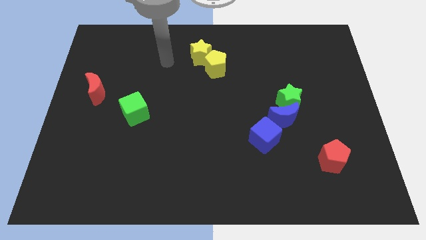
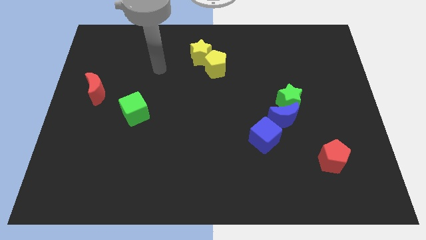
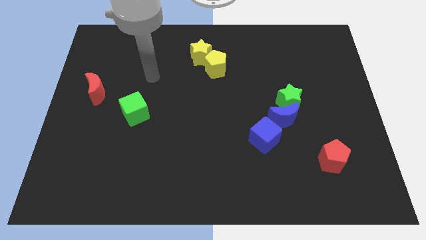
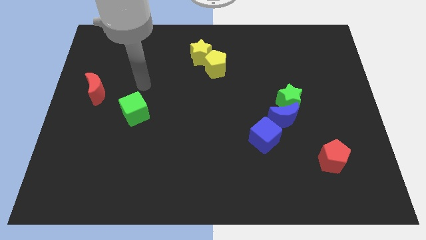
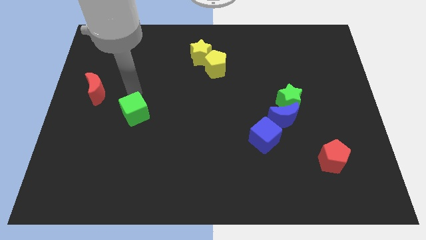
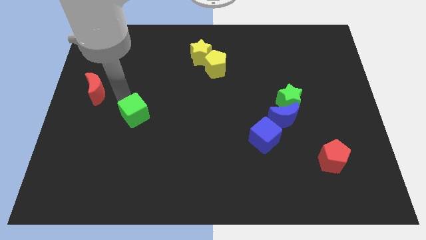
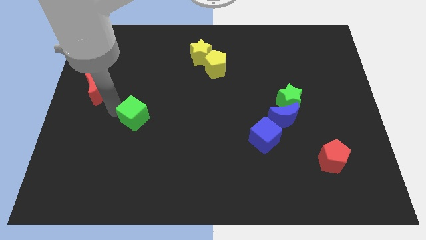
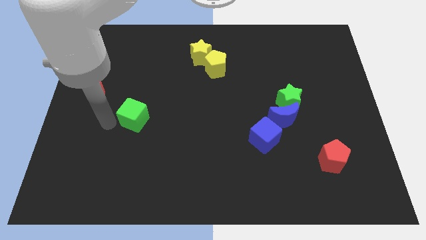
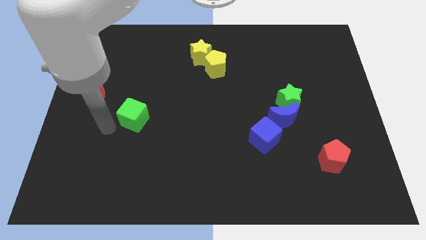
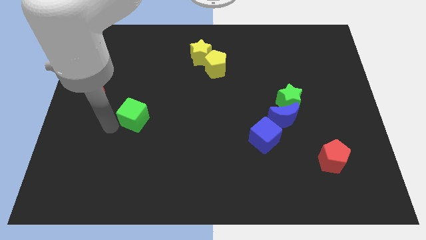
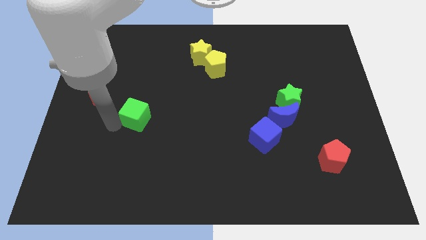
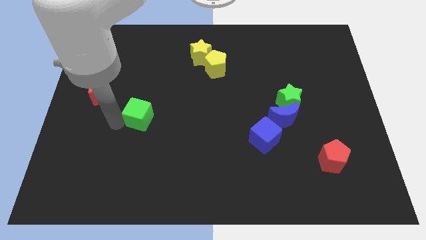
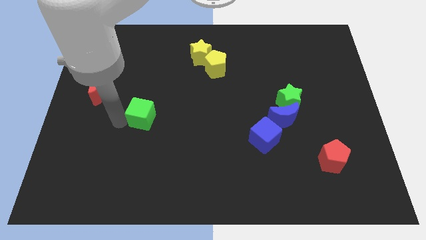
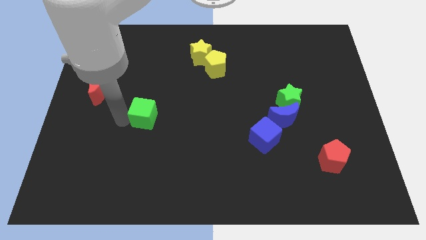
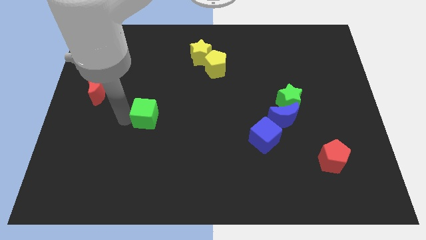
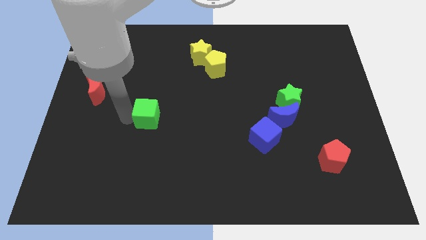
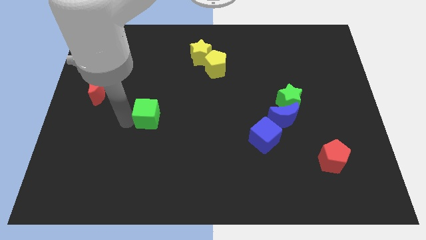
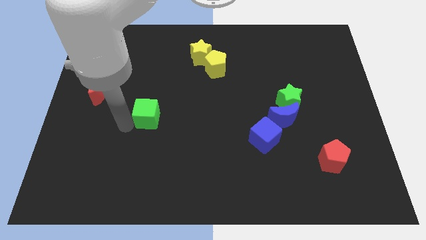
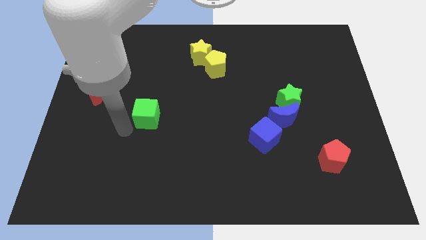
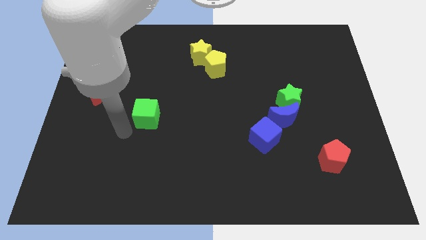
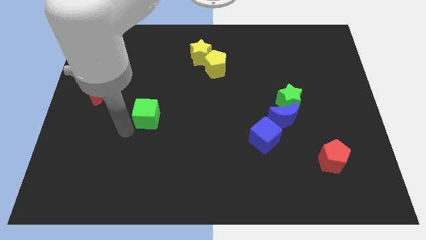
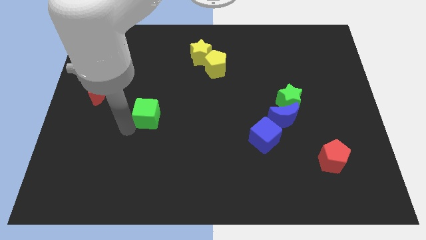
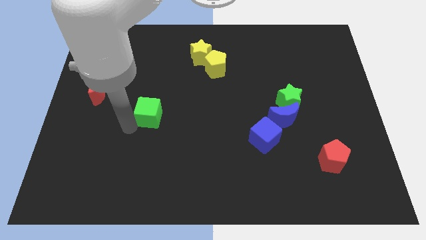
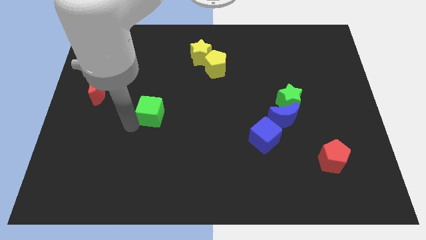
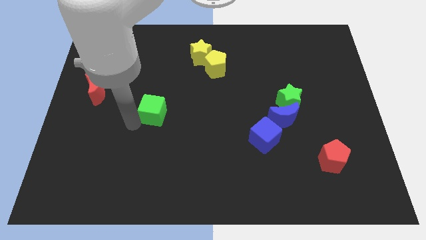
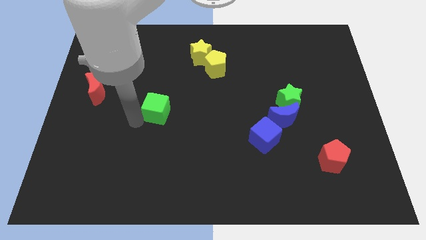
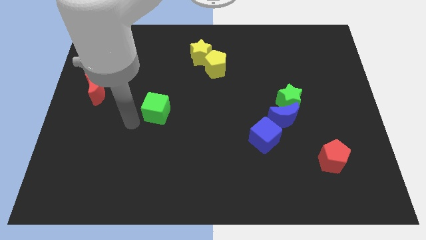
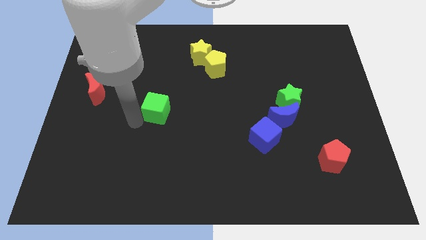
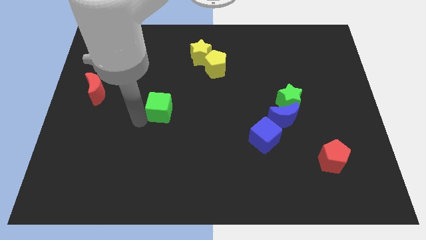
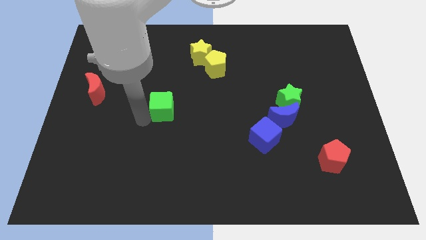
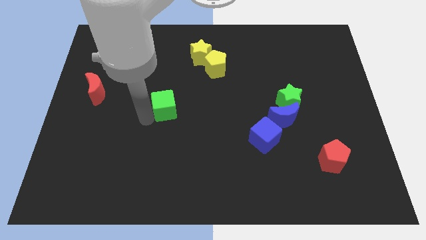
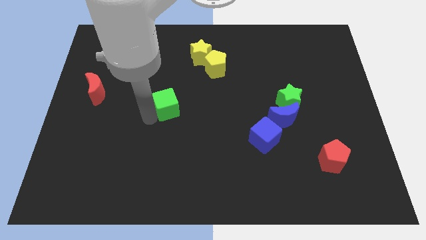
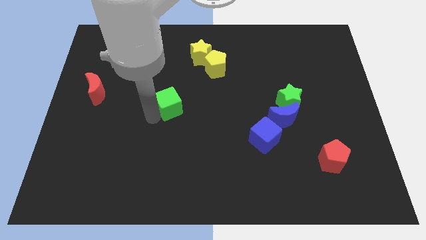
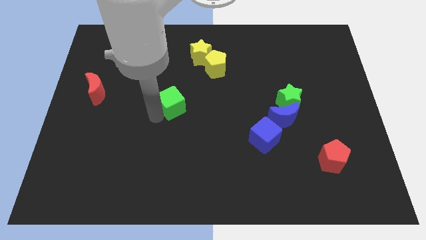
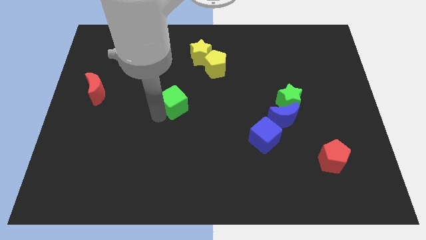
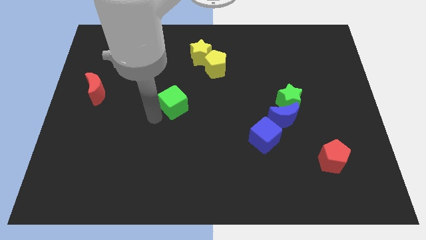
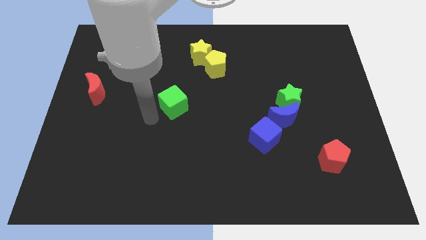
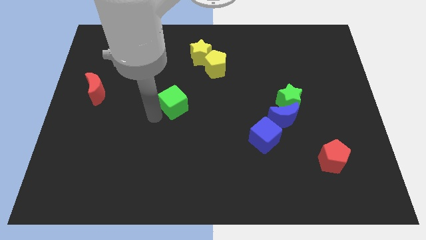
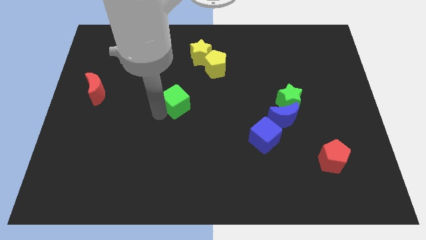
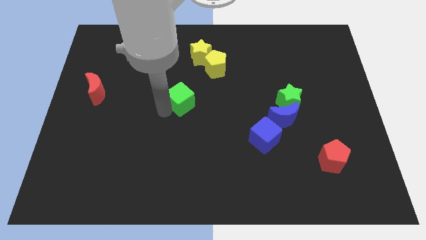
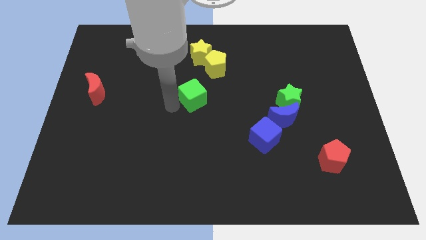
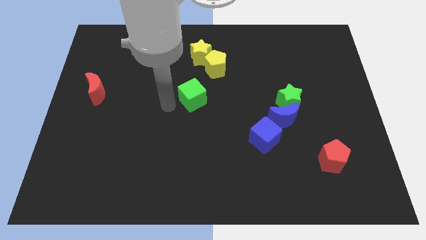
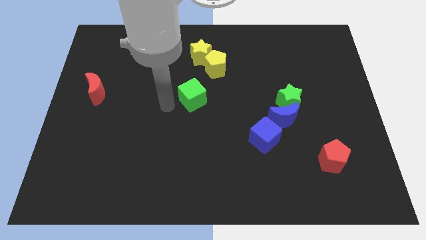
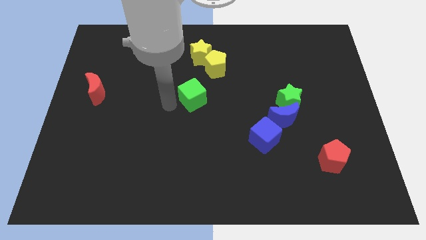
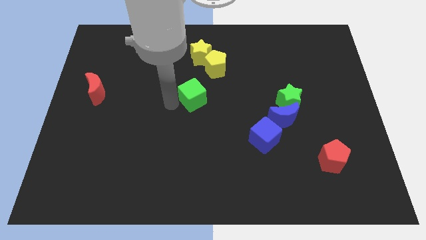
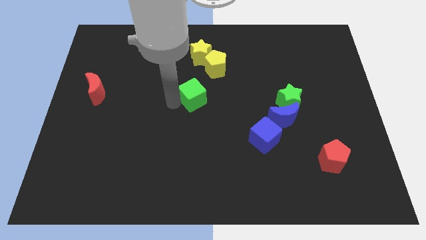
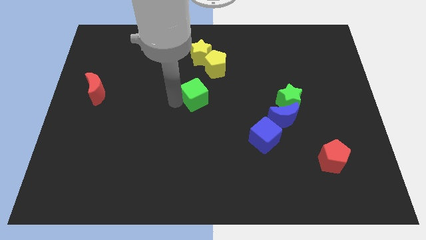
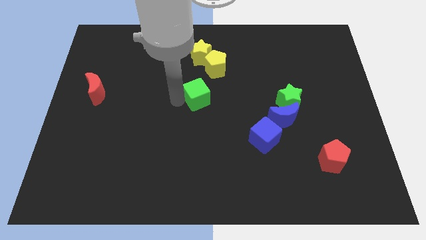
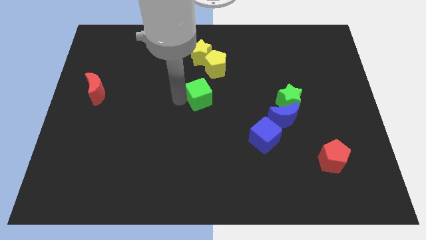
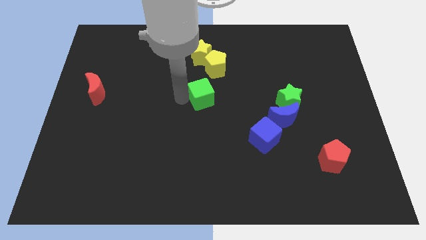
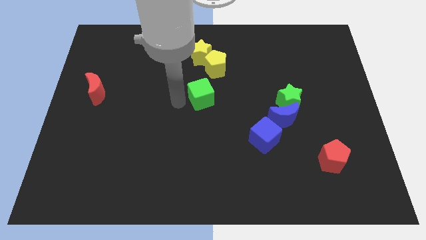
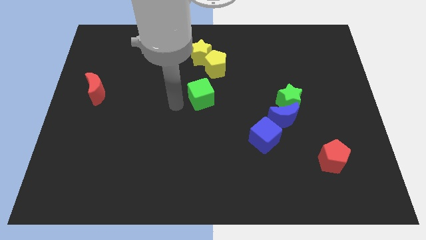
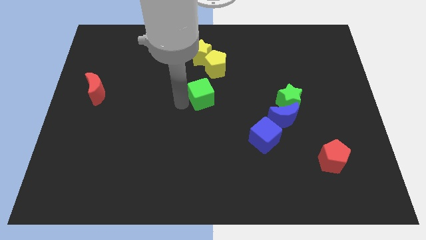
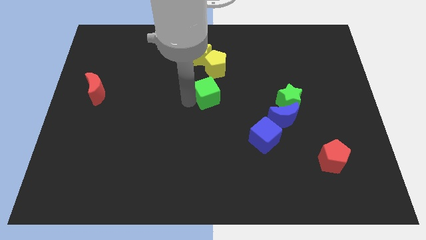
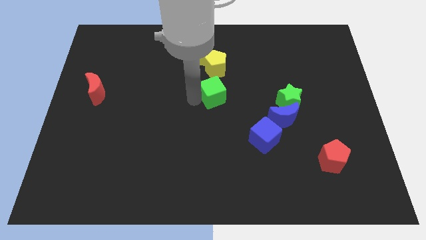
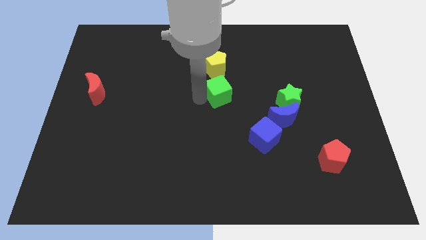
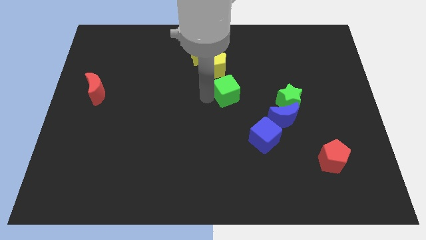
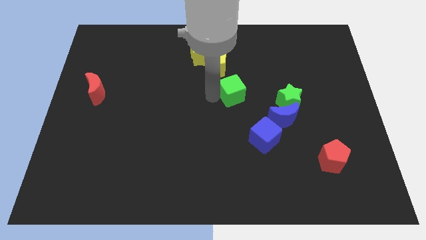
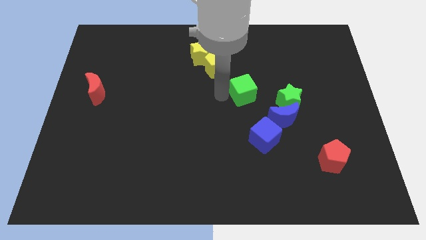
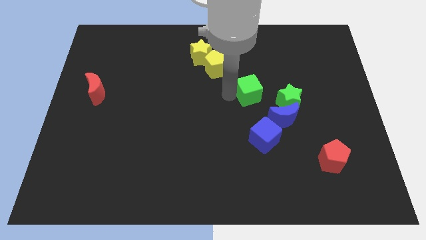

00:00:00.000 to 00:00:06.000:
move the green cube to the top left side of the green star

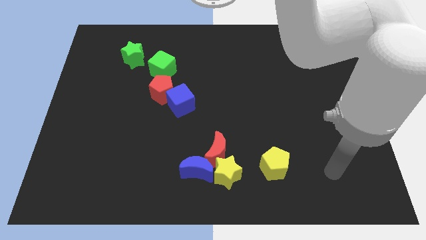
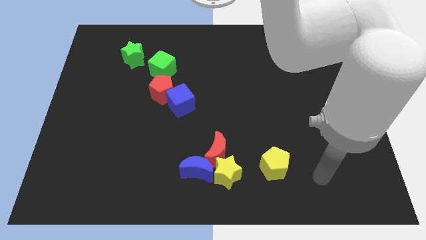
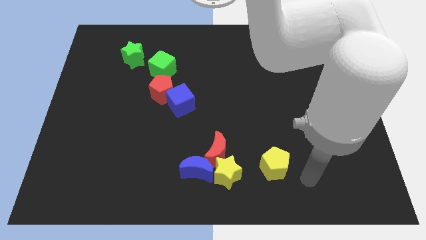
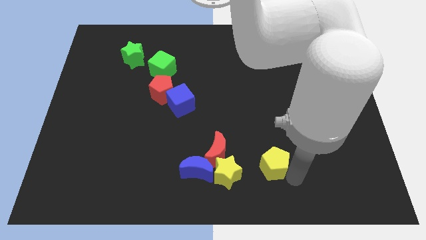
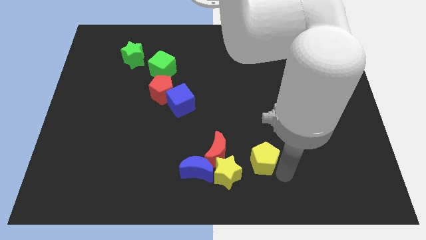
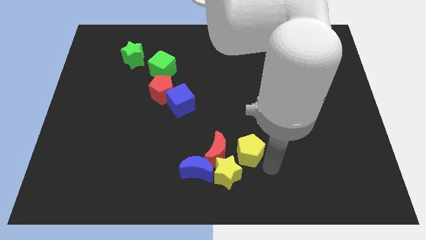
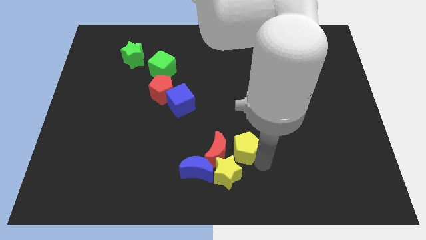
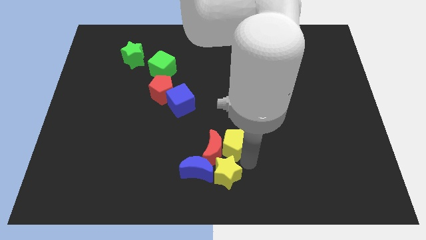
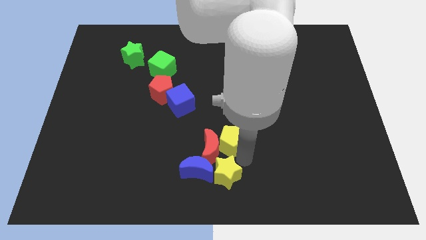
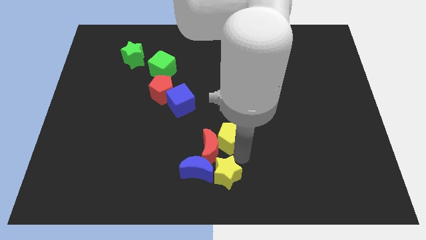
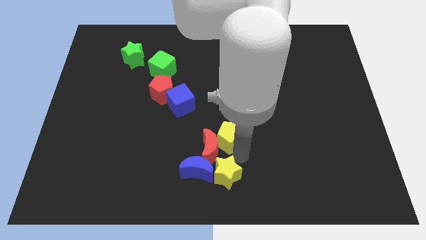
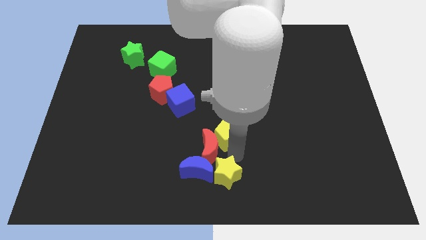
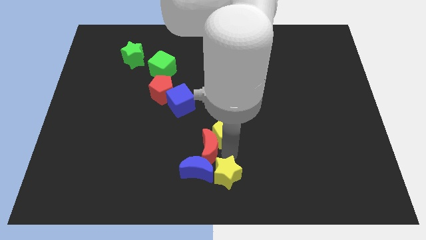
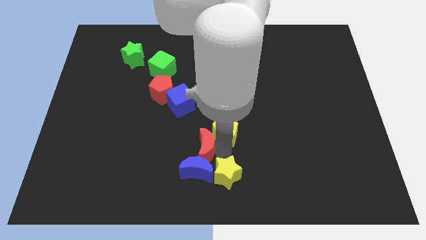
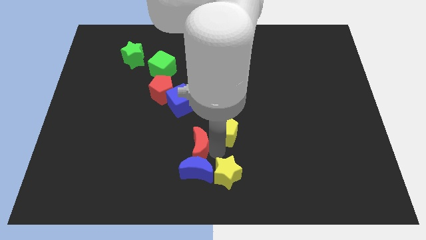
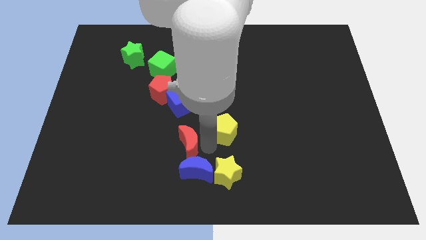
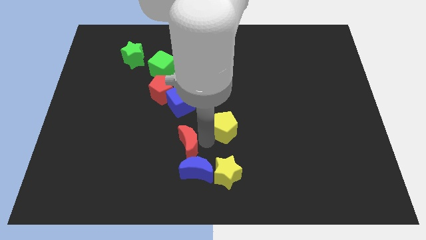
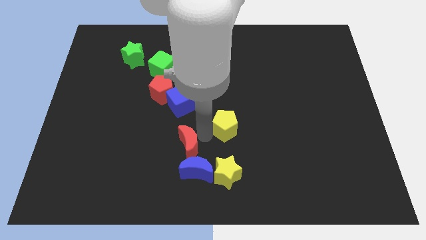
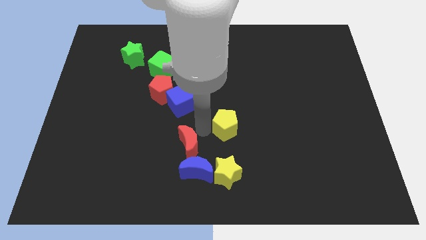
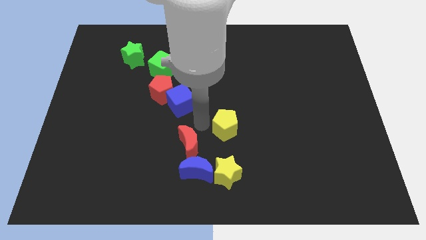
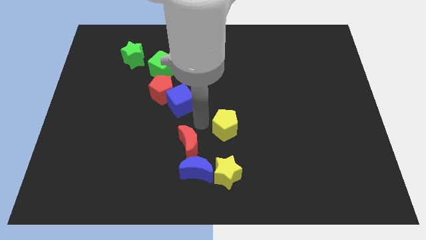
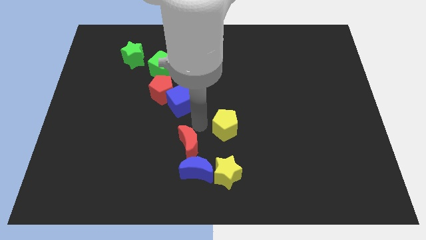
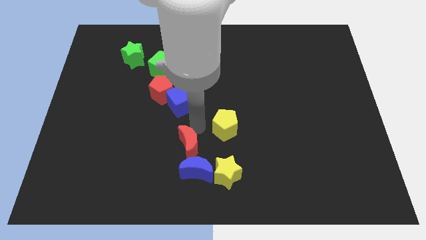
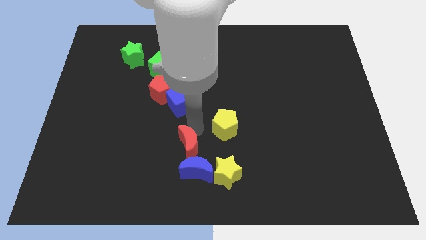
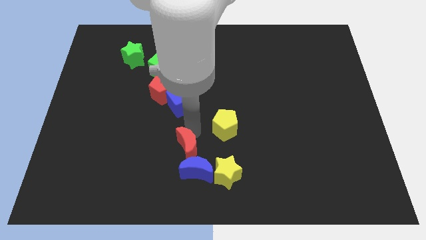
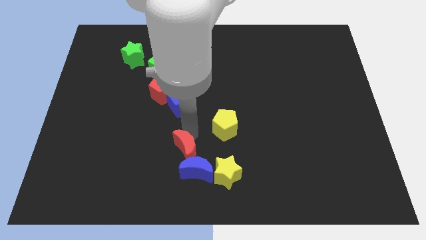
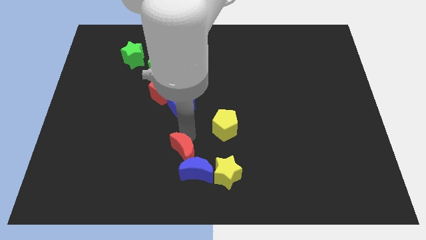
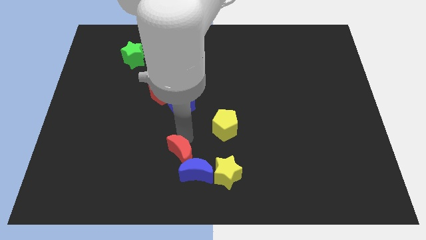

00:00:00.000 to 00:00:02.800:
slide the red moon just left of the yellow star
